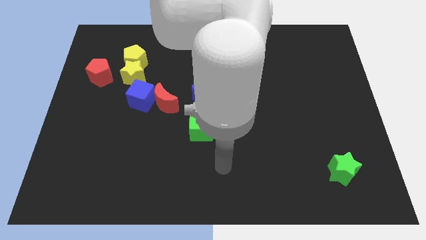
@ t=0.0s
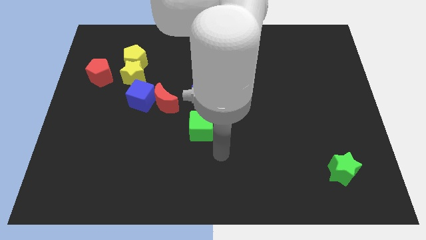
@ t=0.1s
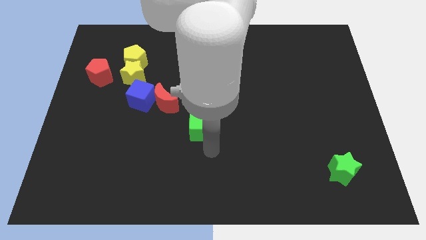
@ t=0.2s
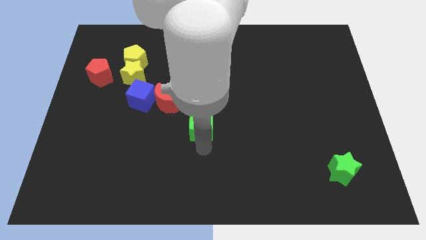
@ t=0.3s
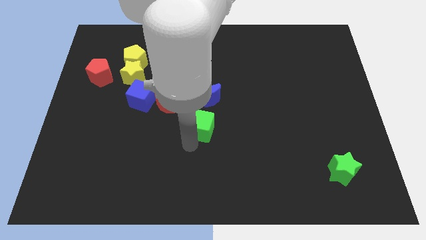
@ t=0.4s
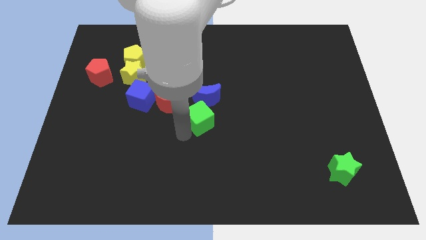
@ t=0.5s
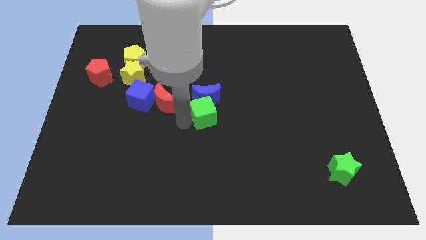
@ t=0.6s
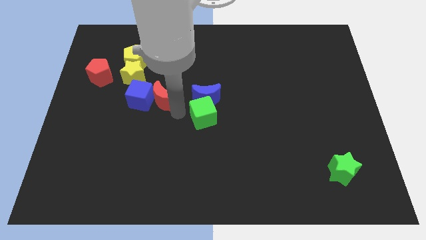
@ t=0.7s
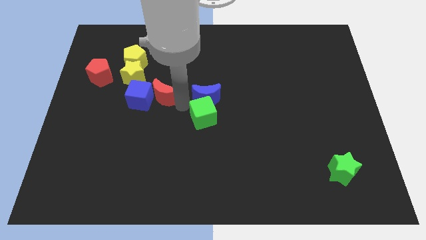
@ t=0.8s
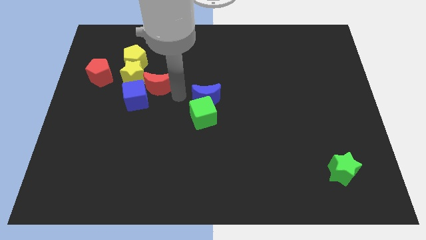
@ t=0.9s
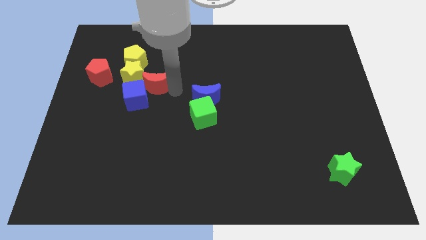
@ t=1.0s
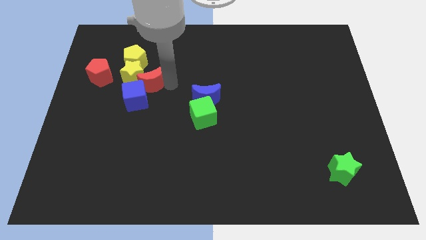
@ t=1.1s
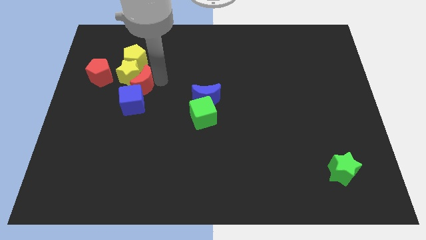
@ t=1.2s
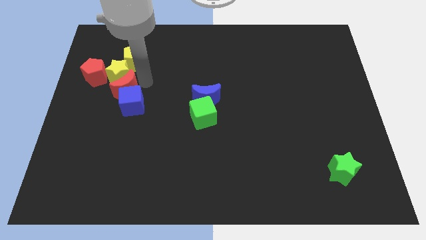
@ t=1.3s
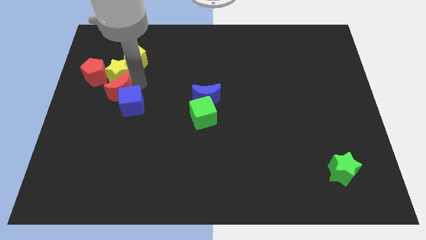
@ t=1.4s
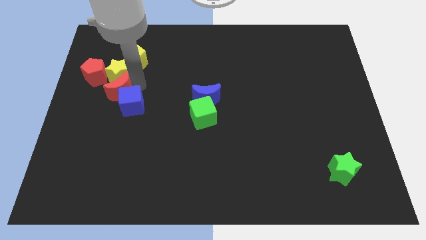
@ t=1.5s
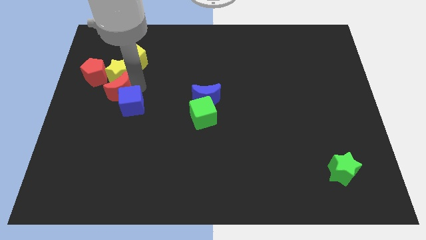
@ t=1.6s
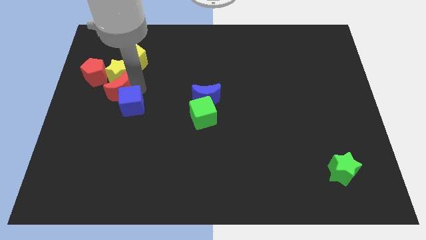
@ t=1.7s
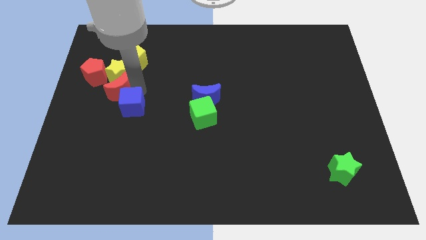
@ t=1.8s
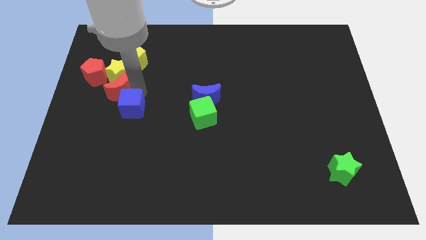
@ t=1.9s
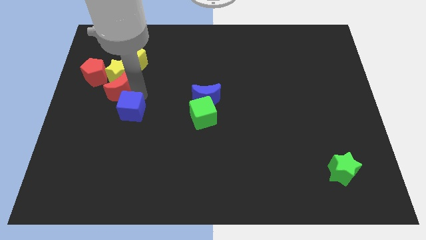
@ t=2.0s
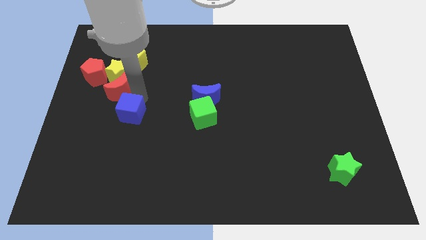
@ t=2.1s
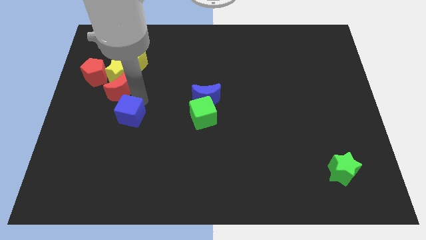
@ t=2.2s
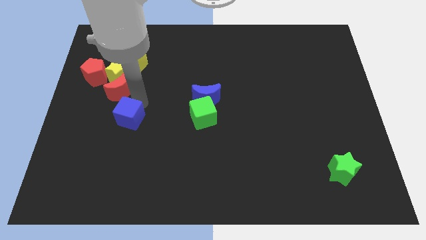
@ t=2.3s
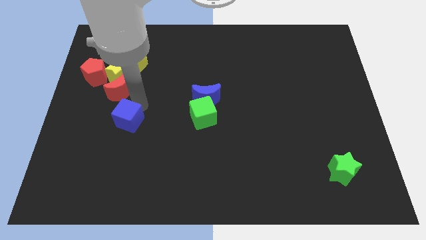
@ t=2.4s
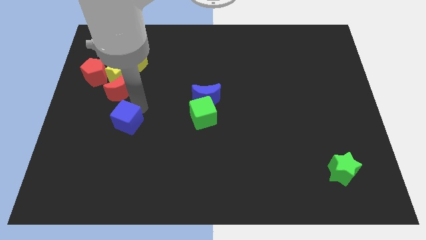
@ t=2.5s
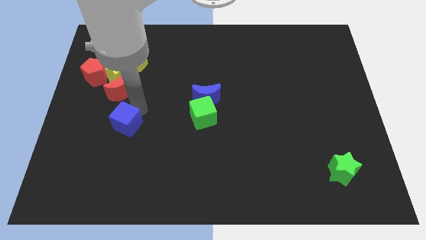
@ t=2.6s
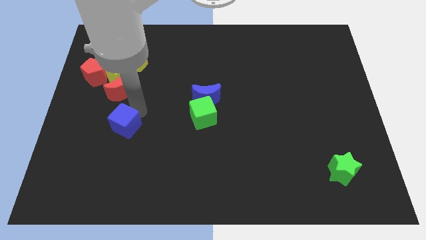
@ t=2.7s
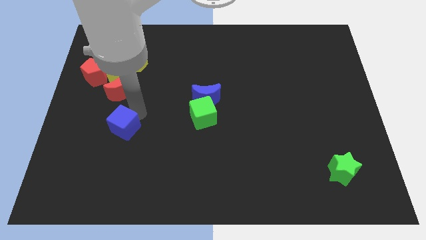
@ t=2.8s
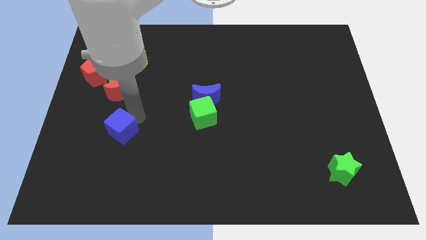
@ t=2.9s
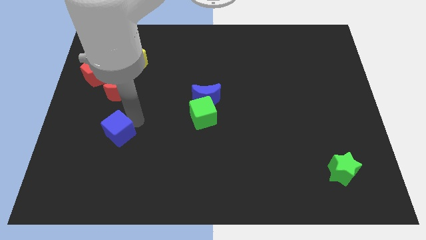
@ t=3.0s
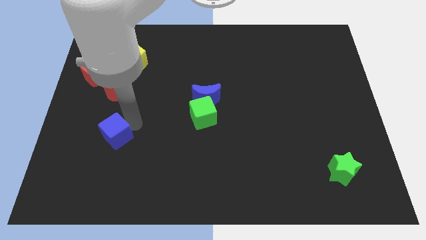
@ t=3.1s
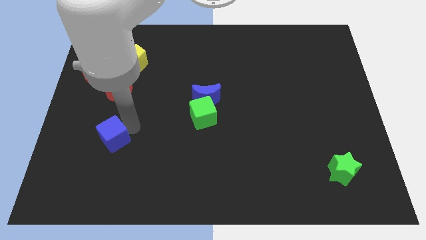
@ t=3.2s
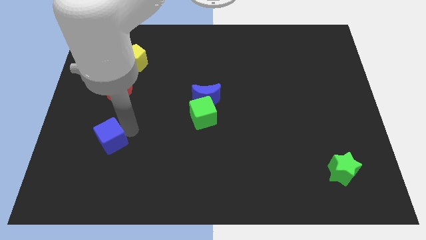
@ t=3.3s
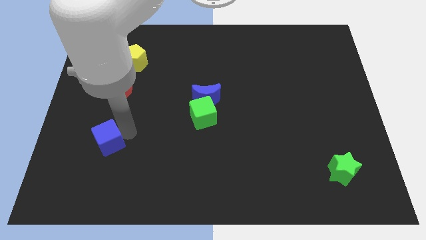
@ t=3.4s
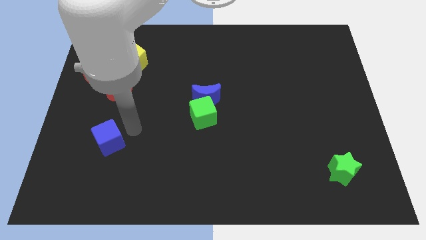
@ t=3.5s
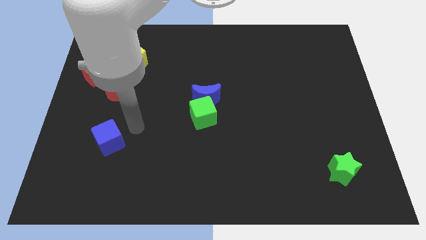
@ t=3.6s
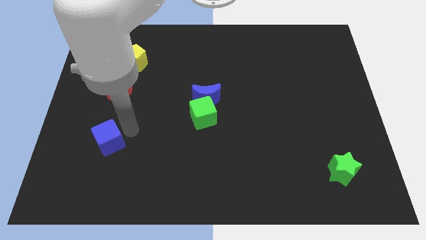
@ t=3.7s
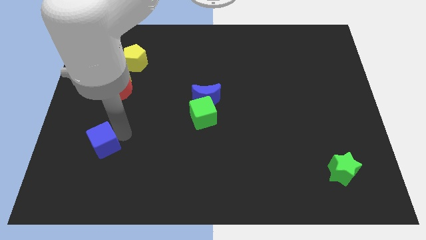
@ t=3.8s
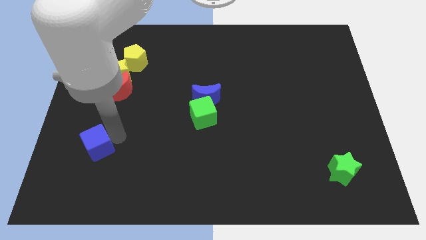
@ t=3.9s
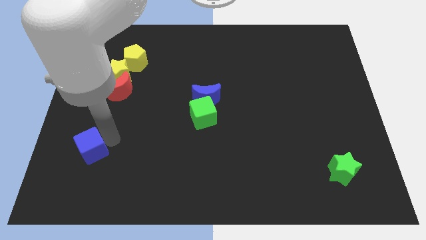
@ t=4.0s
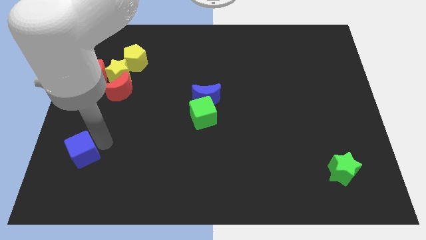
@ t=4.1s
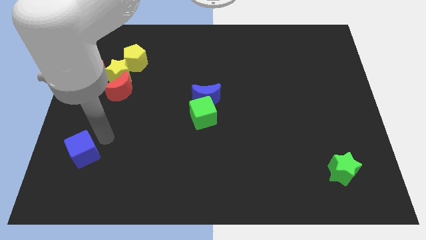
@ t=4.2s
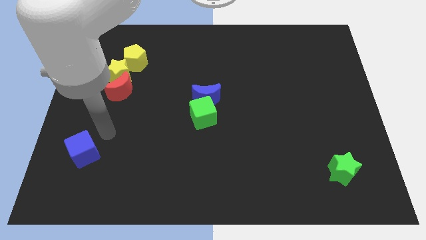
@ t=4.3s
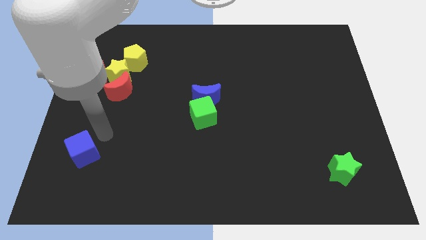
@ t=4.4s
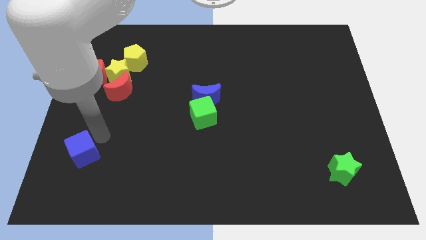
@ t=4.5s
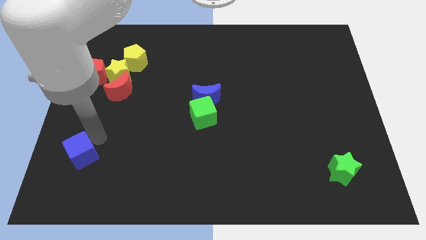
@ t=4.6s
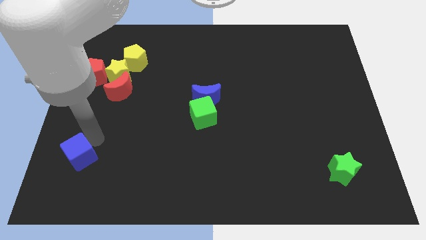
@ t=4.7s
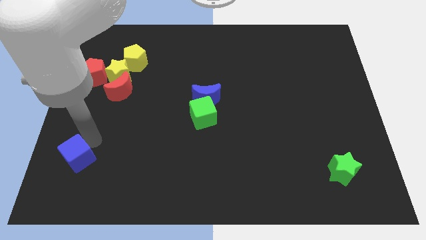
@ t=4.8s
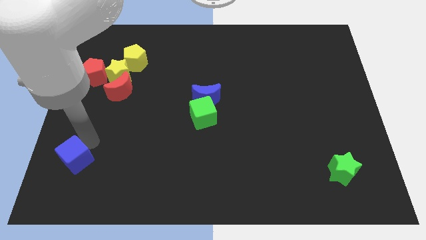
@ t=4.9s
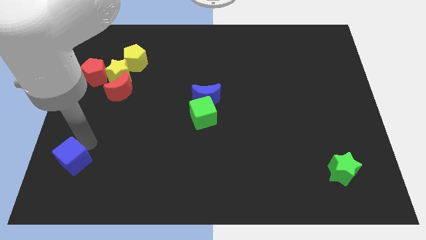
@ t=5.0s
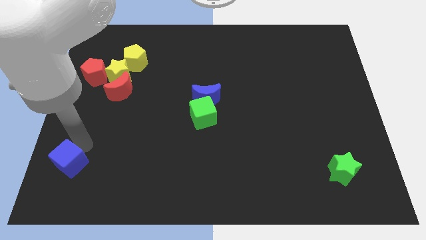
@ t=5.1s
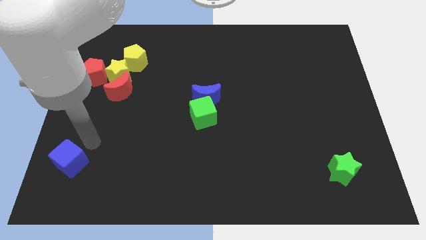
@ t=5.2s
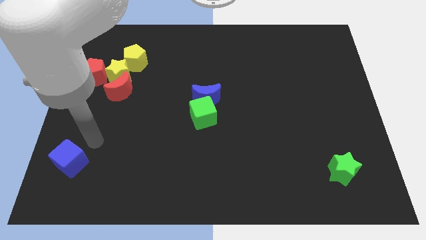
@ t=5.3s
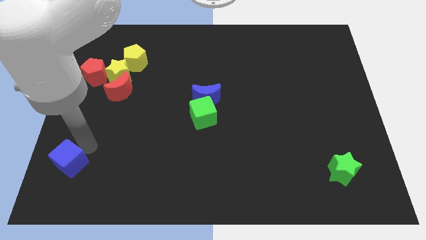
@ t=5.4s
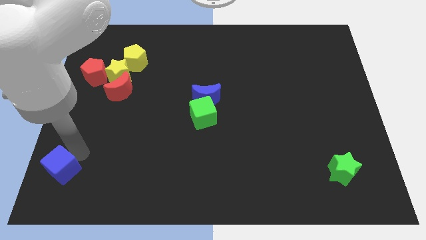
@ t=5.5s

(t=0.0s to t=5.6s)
put the blue cube to the bottom left of the board

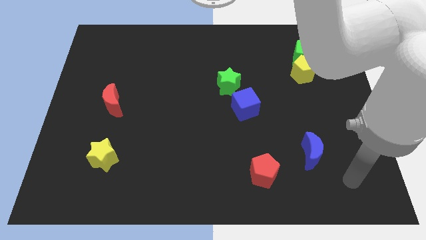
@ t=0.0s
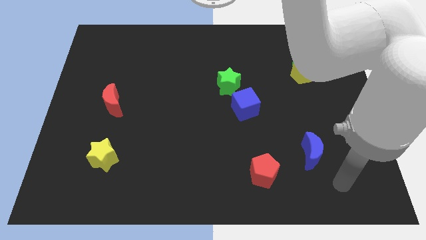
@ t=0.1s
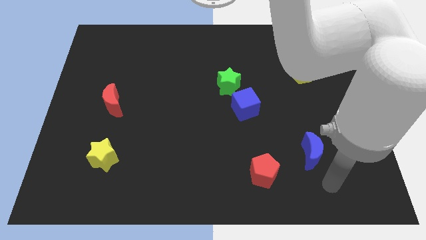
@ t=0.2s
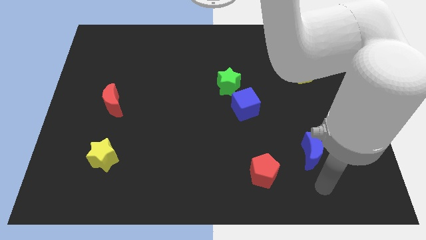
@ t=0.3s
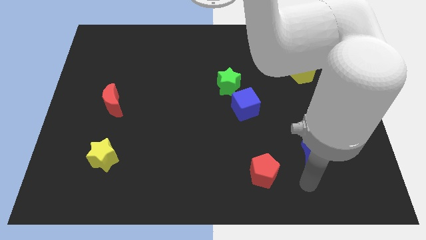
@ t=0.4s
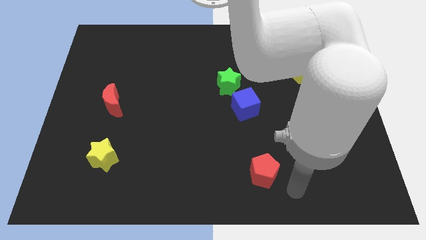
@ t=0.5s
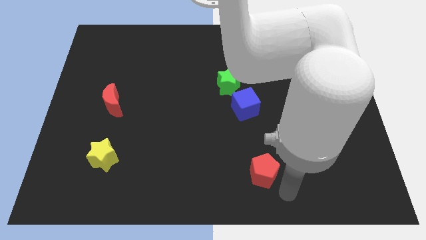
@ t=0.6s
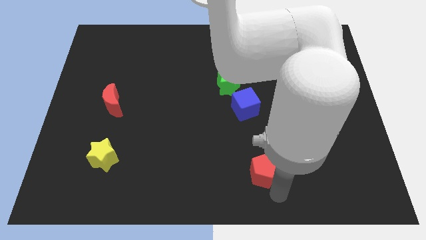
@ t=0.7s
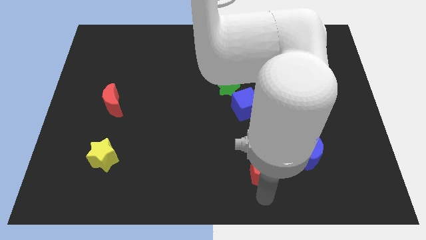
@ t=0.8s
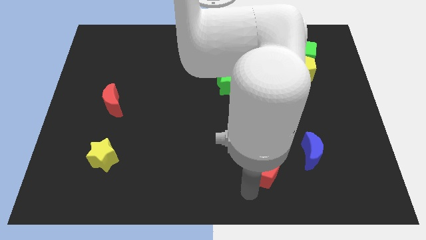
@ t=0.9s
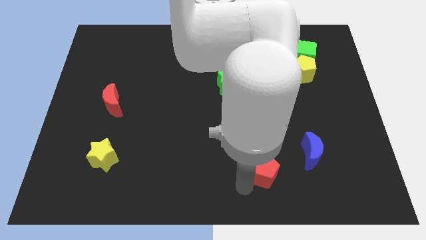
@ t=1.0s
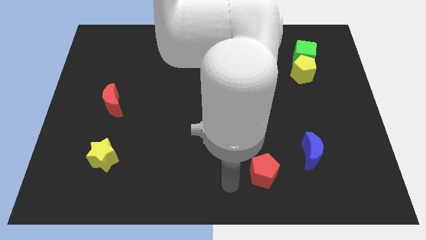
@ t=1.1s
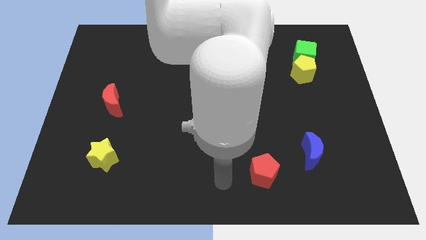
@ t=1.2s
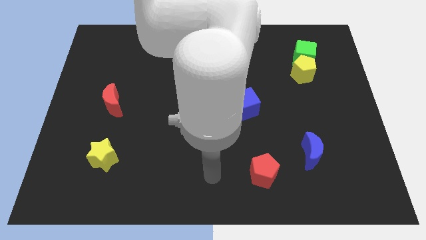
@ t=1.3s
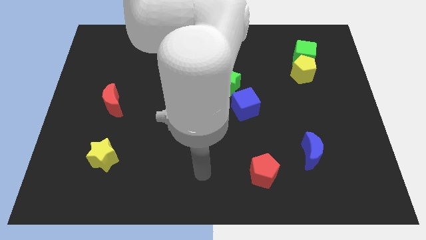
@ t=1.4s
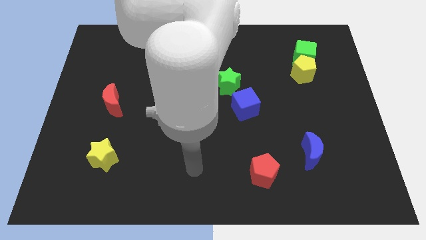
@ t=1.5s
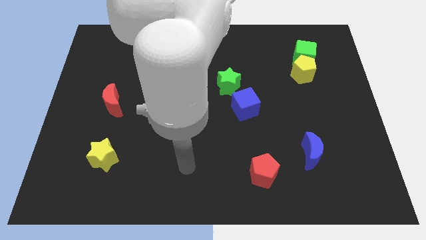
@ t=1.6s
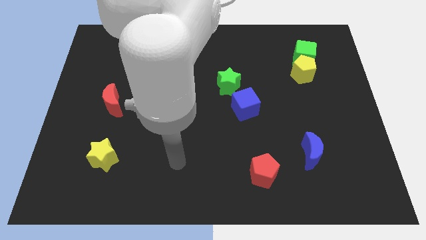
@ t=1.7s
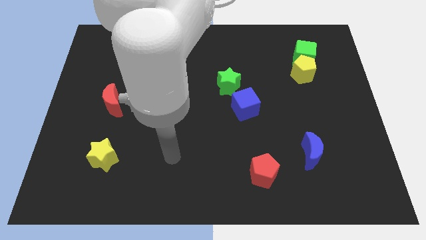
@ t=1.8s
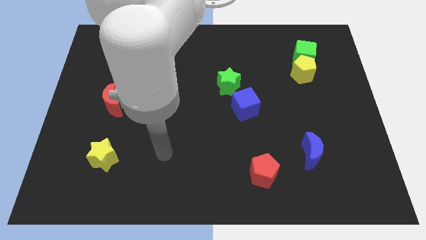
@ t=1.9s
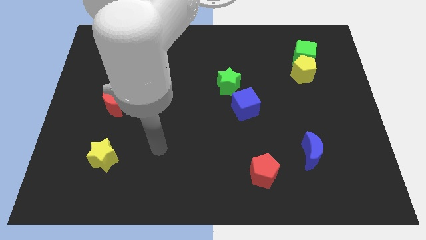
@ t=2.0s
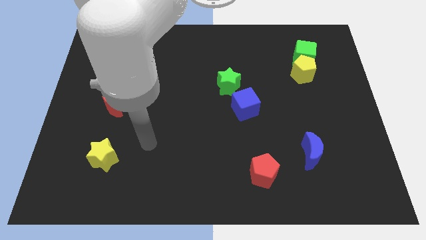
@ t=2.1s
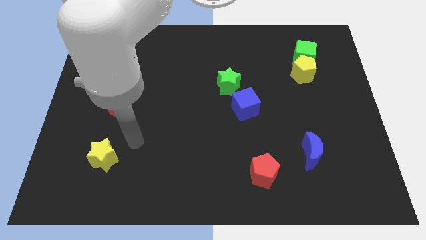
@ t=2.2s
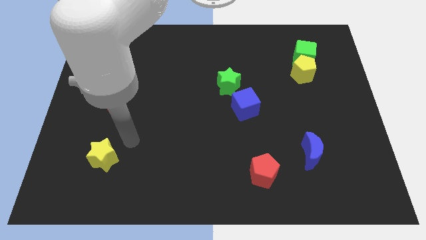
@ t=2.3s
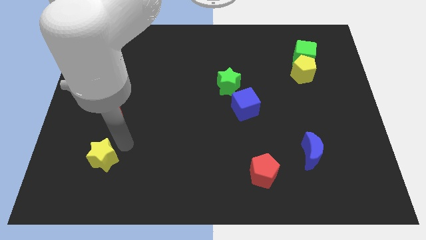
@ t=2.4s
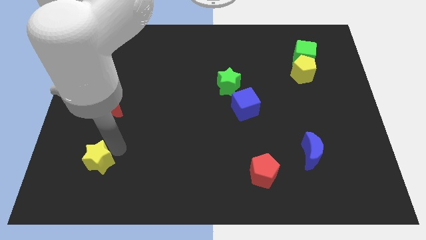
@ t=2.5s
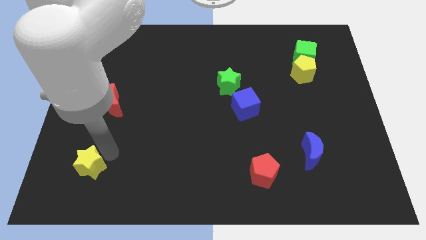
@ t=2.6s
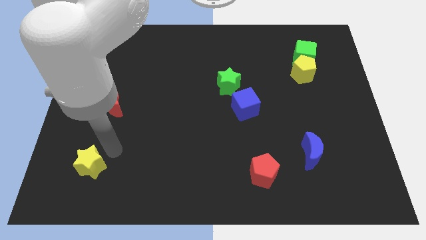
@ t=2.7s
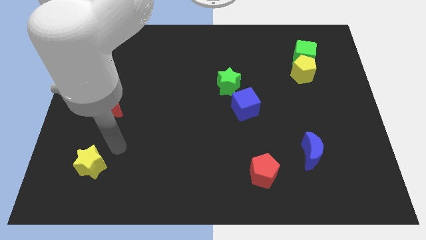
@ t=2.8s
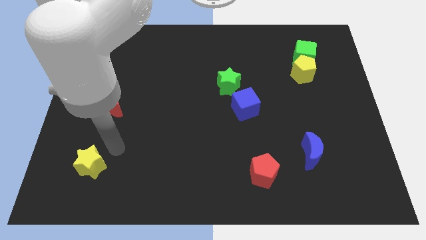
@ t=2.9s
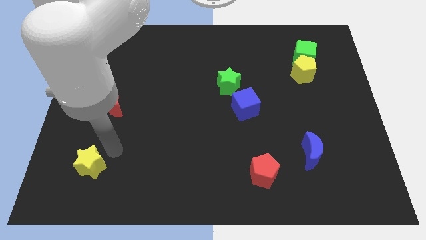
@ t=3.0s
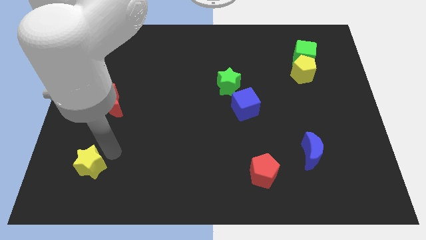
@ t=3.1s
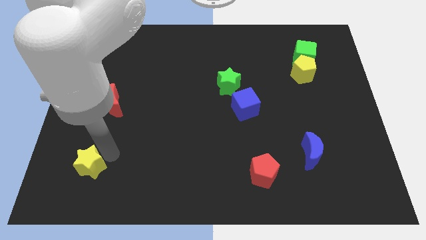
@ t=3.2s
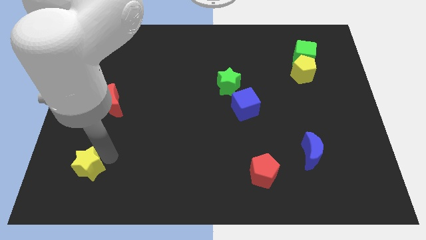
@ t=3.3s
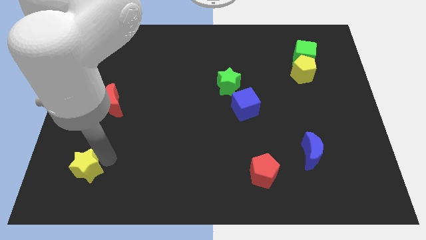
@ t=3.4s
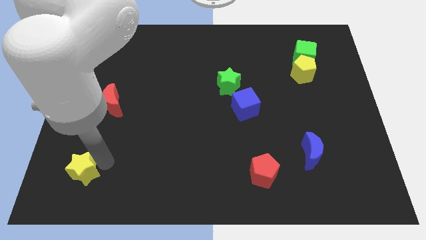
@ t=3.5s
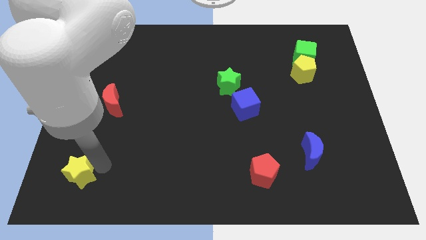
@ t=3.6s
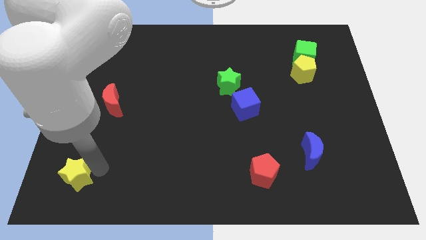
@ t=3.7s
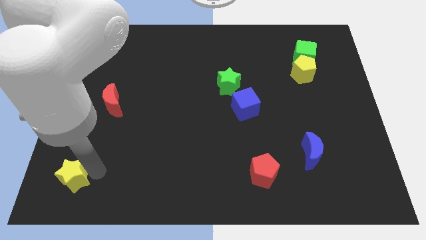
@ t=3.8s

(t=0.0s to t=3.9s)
put the yellow star to the bottom left corner
